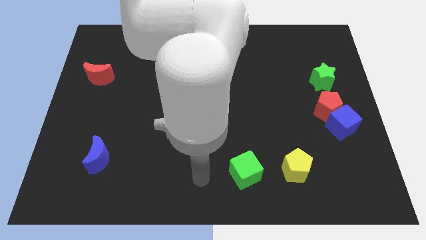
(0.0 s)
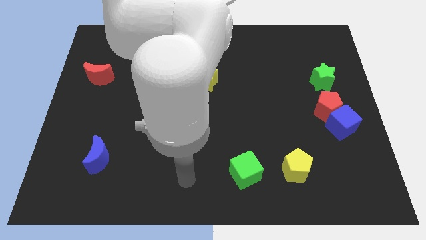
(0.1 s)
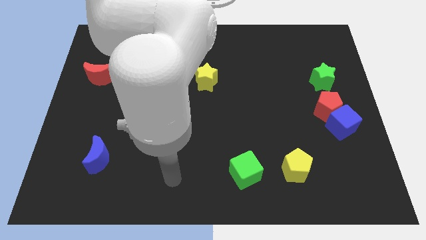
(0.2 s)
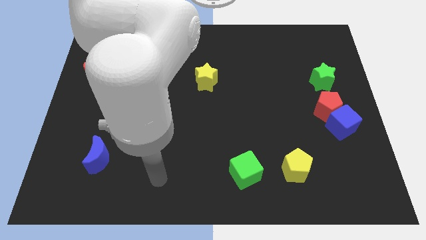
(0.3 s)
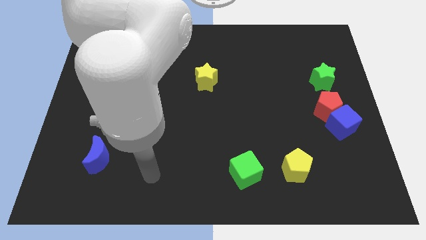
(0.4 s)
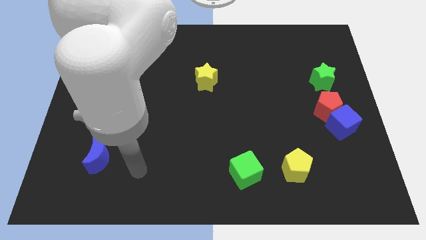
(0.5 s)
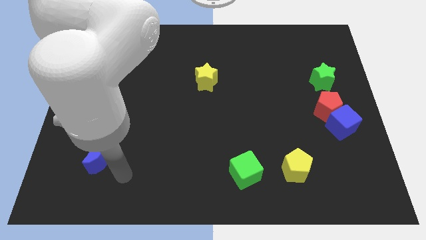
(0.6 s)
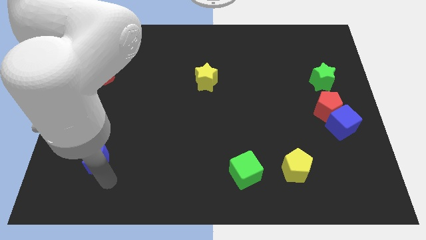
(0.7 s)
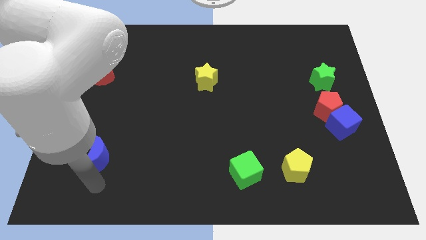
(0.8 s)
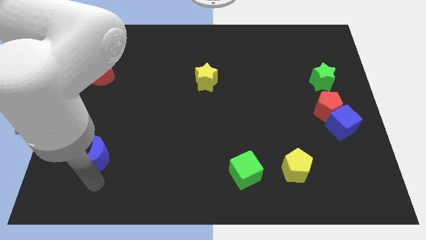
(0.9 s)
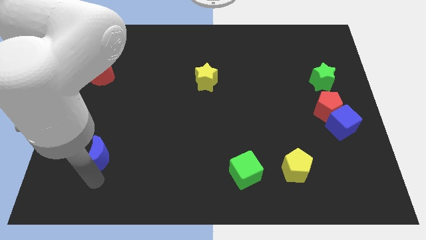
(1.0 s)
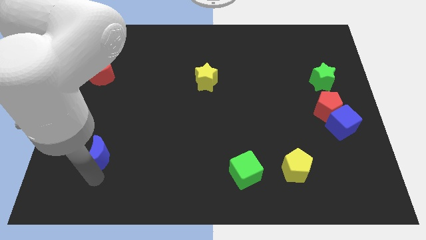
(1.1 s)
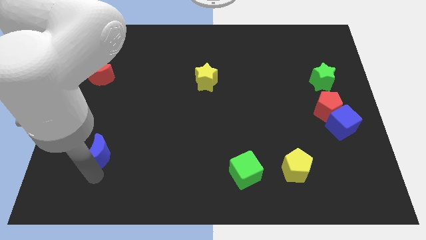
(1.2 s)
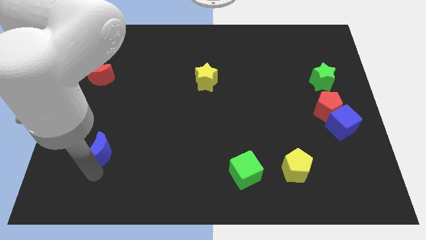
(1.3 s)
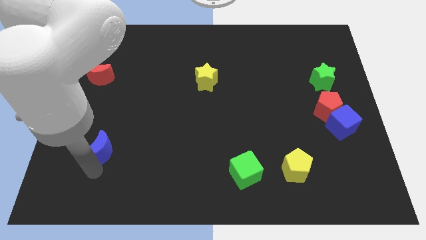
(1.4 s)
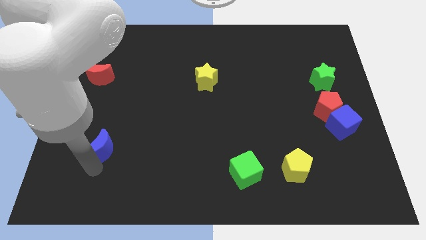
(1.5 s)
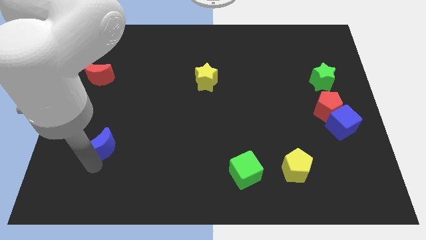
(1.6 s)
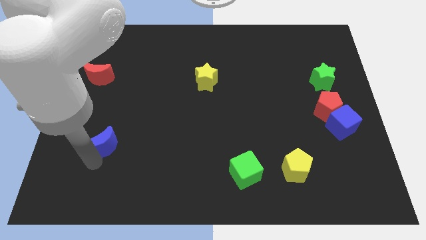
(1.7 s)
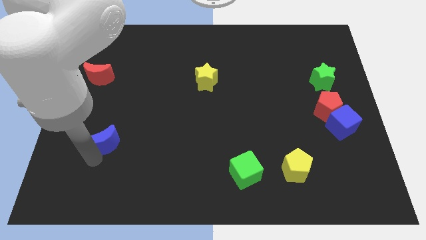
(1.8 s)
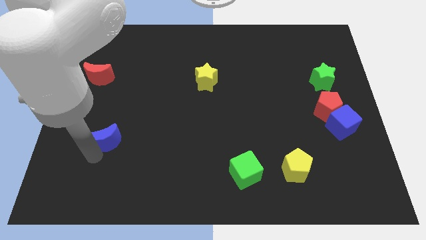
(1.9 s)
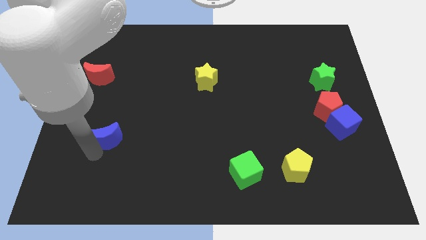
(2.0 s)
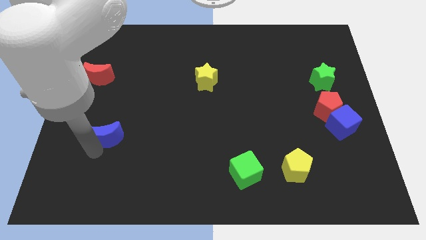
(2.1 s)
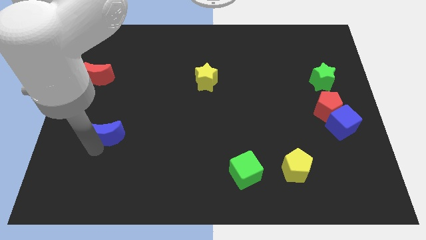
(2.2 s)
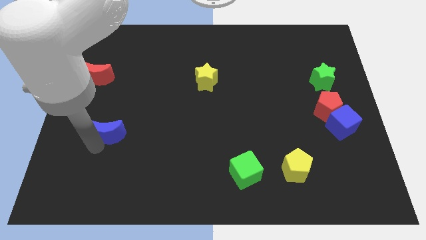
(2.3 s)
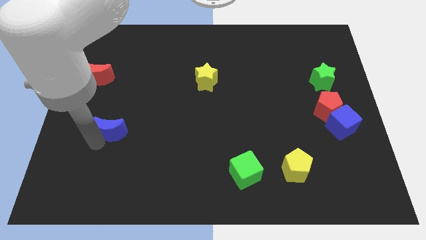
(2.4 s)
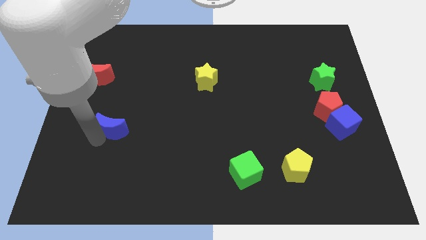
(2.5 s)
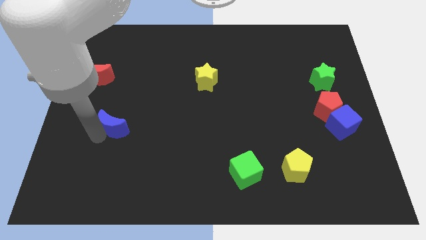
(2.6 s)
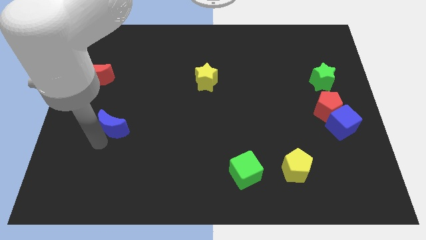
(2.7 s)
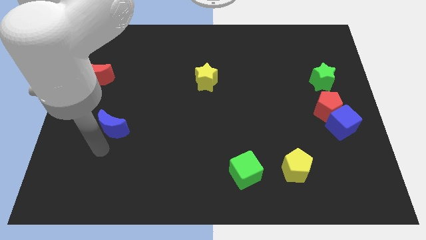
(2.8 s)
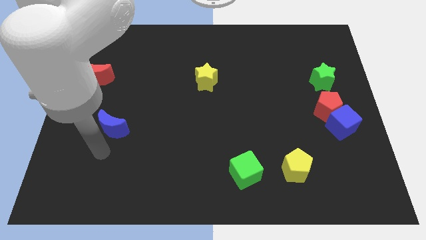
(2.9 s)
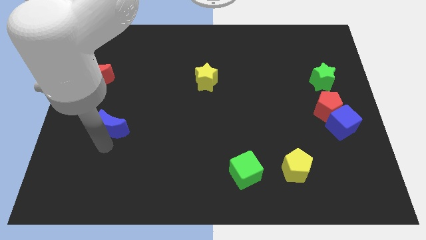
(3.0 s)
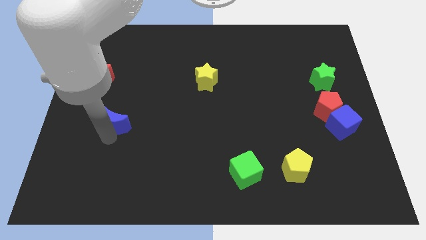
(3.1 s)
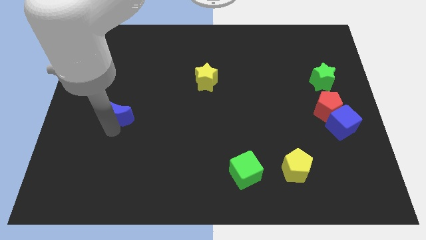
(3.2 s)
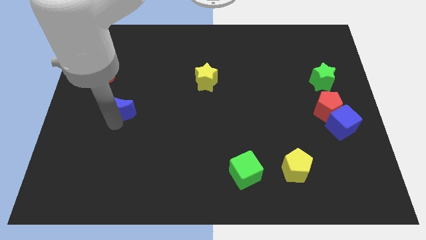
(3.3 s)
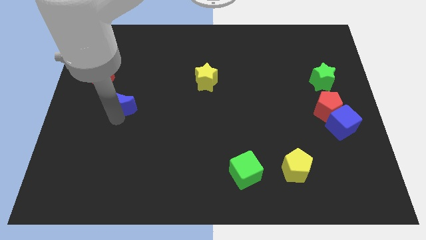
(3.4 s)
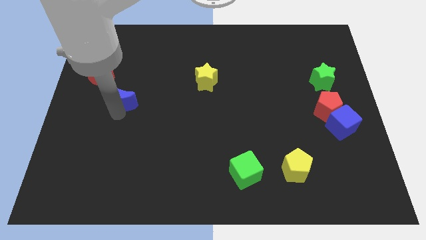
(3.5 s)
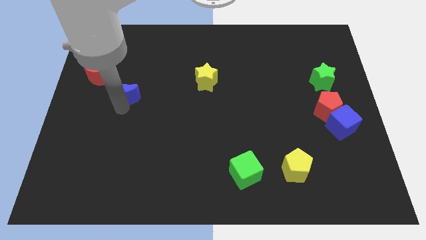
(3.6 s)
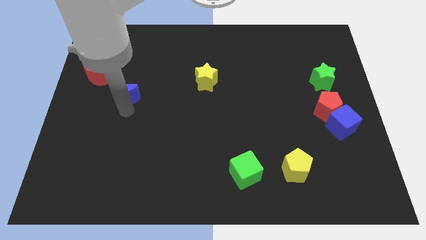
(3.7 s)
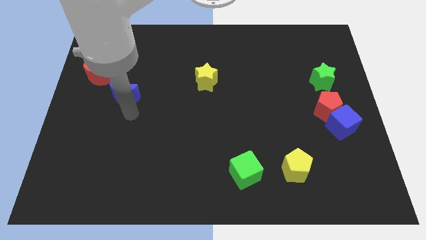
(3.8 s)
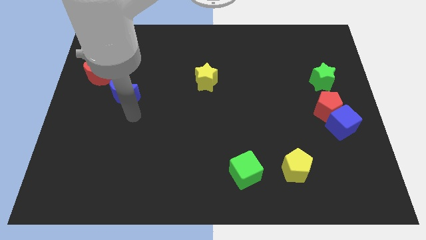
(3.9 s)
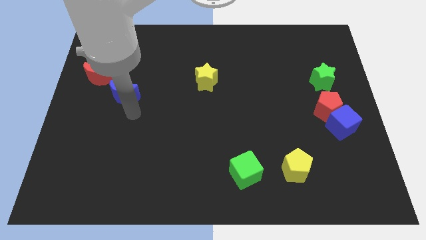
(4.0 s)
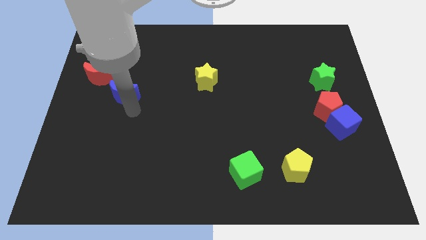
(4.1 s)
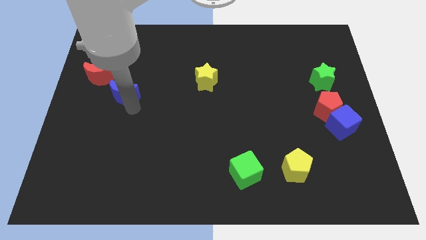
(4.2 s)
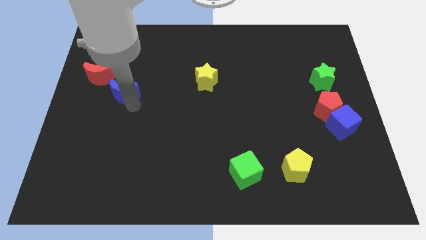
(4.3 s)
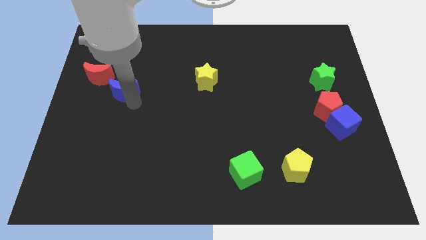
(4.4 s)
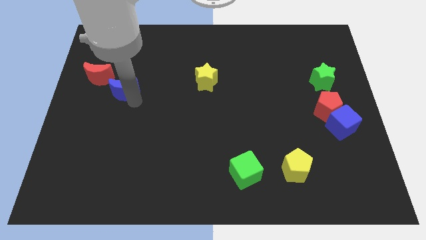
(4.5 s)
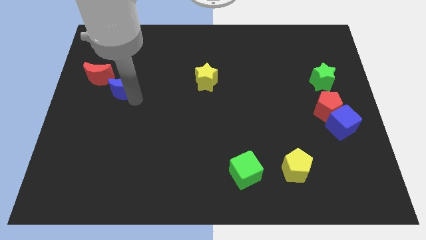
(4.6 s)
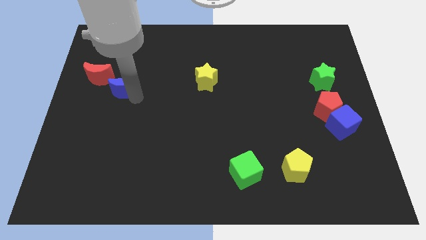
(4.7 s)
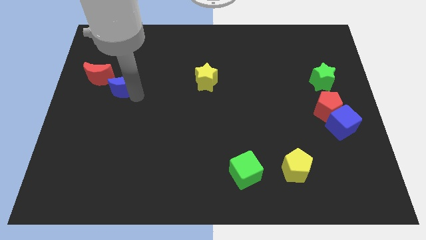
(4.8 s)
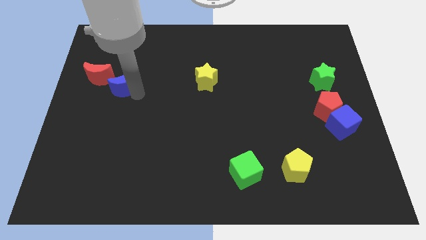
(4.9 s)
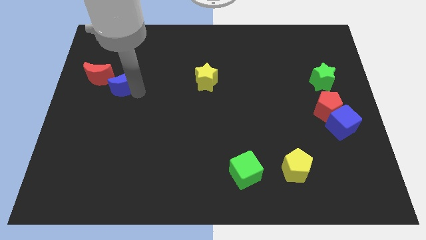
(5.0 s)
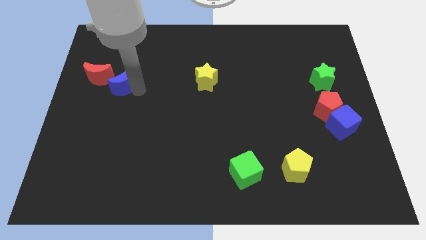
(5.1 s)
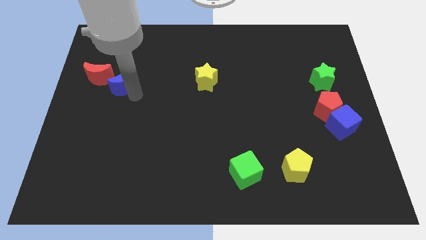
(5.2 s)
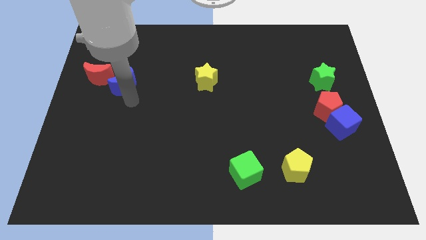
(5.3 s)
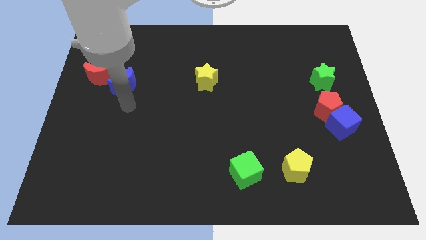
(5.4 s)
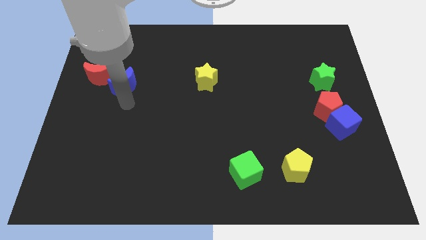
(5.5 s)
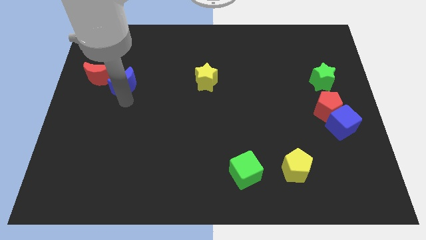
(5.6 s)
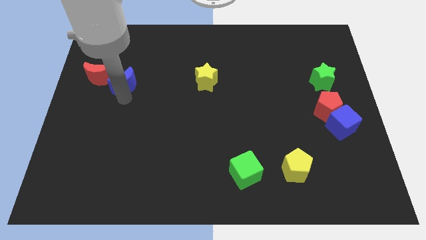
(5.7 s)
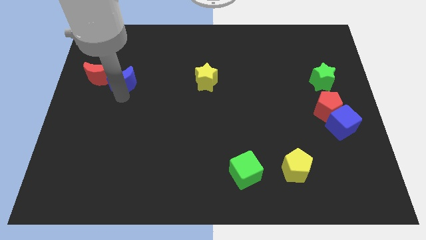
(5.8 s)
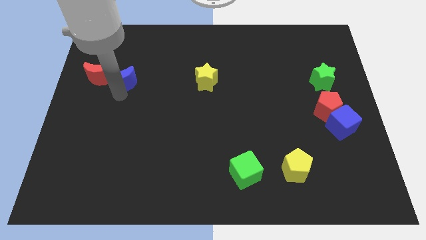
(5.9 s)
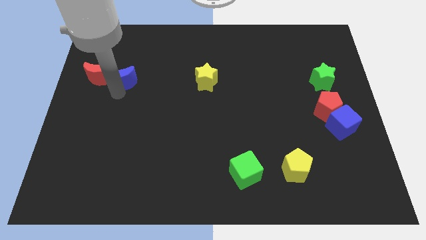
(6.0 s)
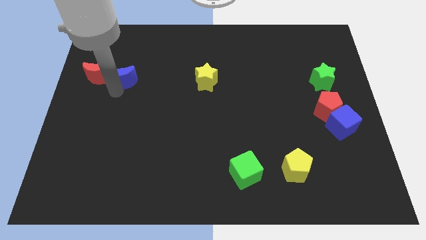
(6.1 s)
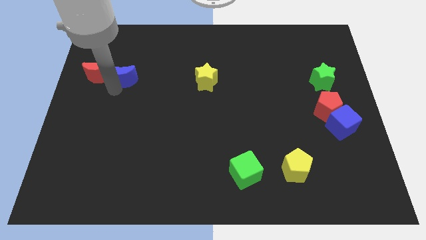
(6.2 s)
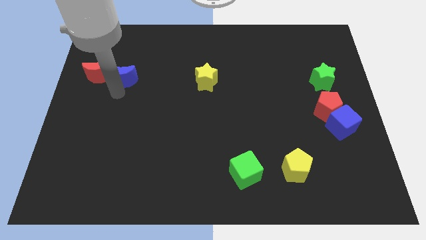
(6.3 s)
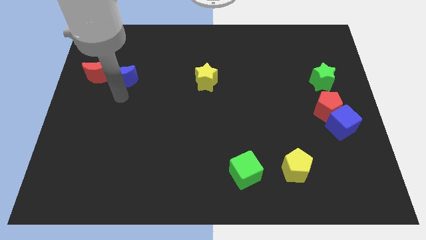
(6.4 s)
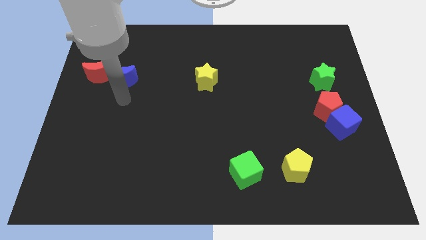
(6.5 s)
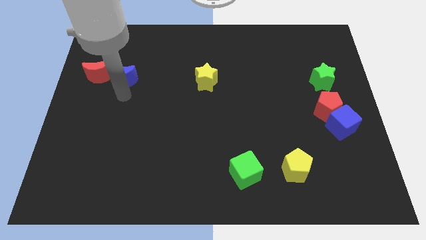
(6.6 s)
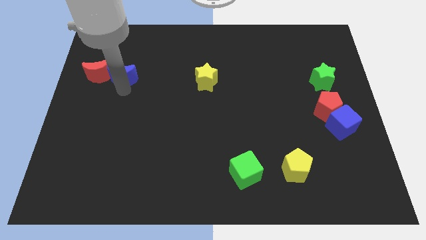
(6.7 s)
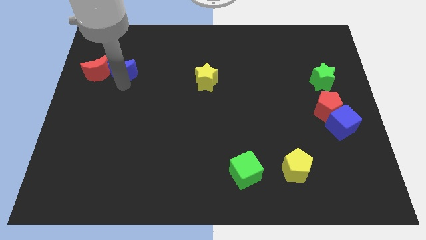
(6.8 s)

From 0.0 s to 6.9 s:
push the blue moon to the top right of the red moon
